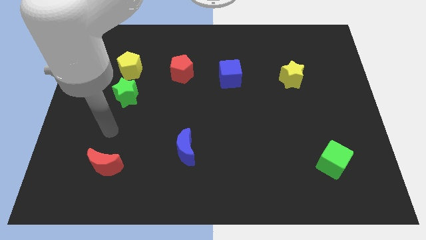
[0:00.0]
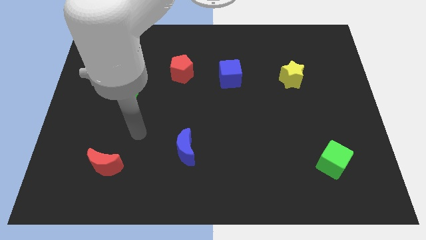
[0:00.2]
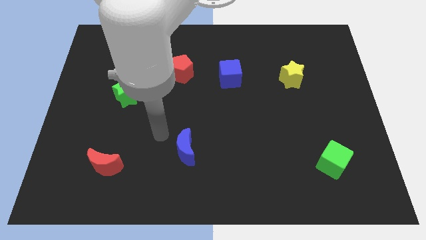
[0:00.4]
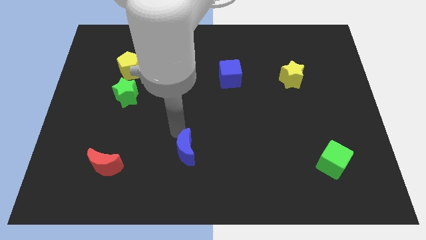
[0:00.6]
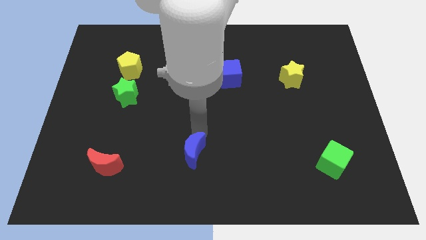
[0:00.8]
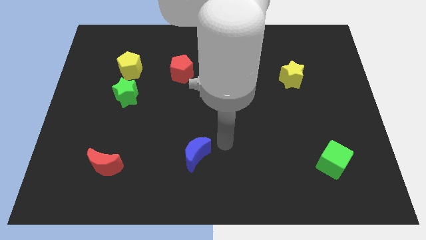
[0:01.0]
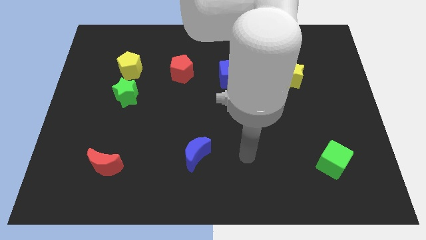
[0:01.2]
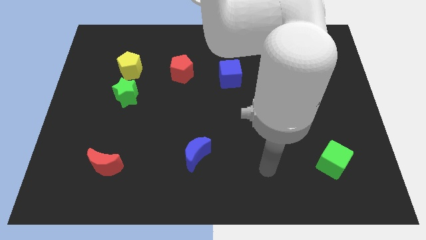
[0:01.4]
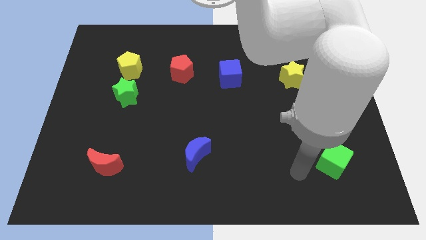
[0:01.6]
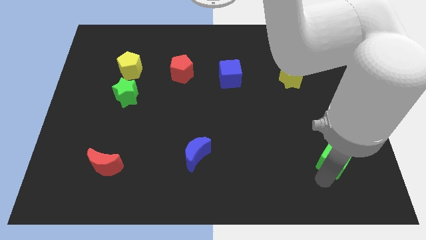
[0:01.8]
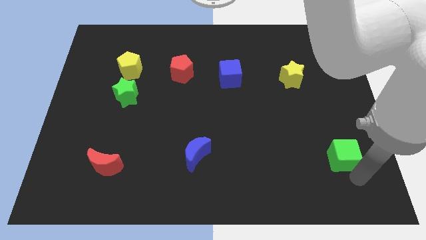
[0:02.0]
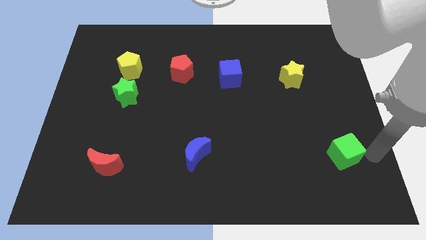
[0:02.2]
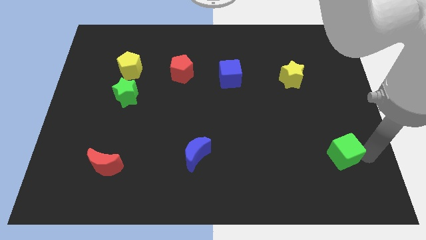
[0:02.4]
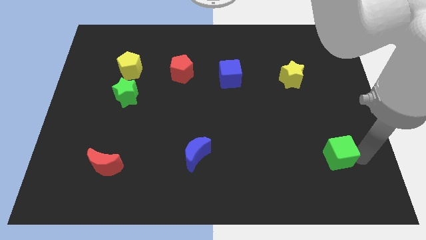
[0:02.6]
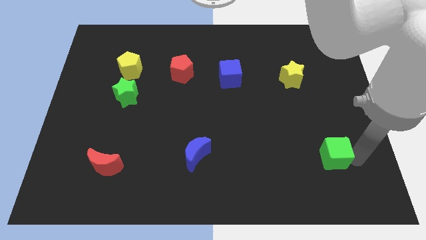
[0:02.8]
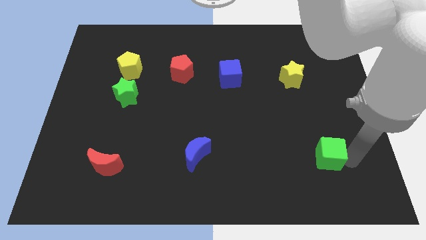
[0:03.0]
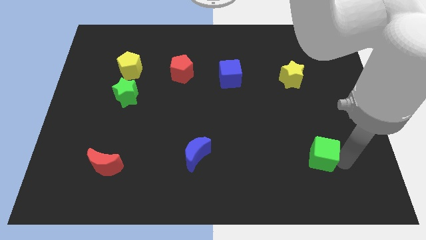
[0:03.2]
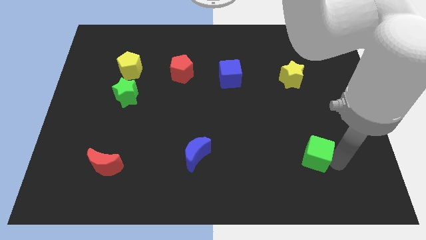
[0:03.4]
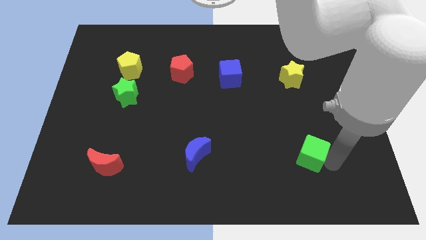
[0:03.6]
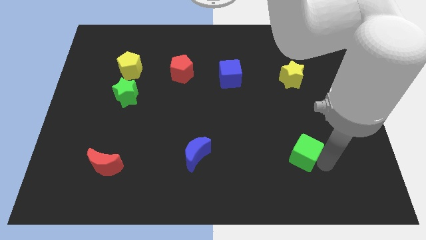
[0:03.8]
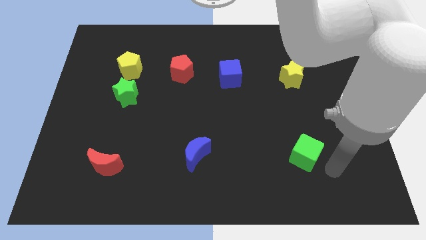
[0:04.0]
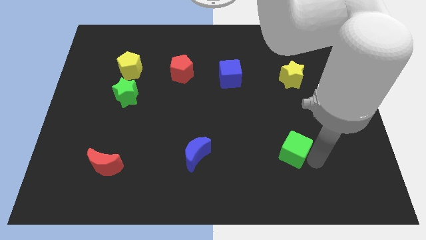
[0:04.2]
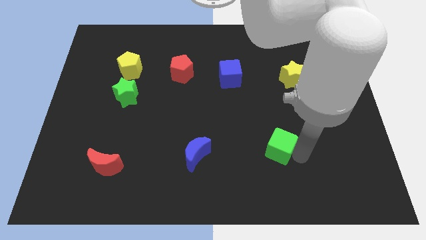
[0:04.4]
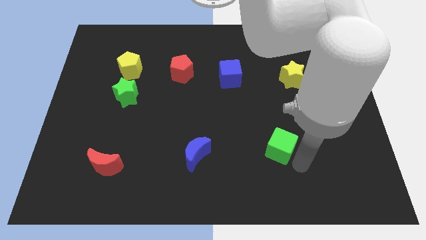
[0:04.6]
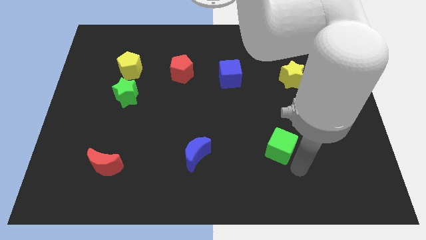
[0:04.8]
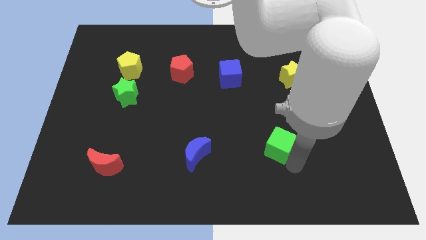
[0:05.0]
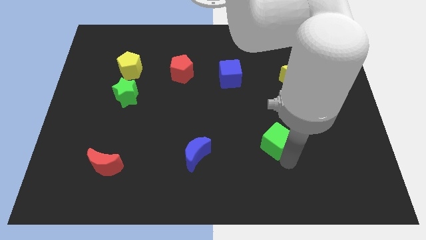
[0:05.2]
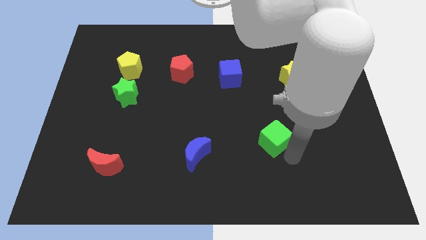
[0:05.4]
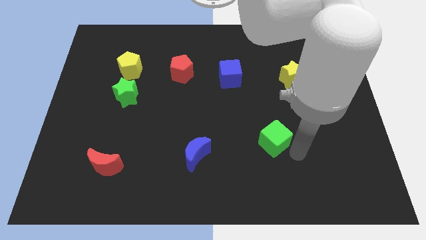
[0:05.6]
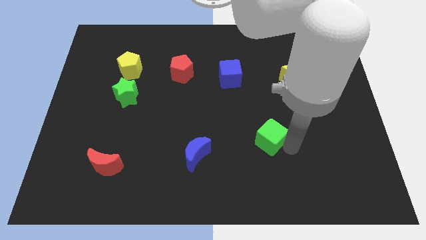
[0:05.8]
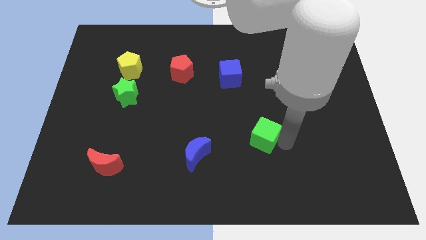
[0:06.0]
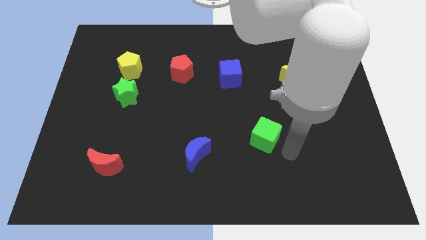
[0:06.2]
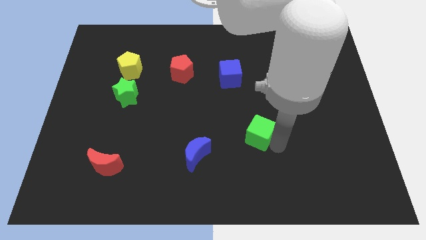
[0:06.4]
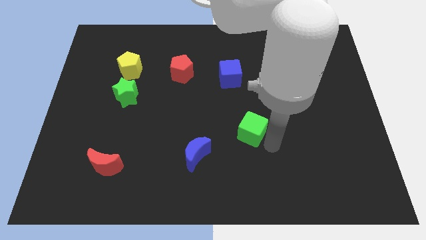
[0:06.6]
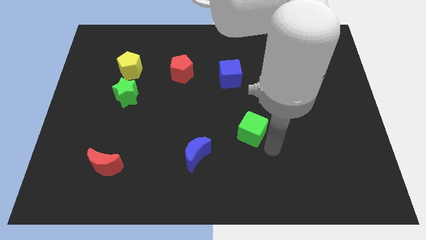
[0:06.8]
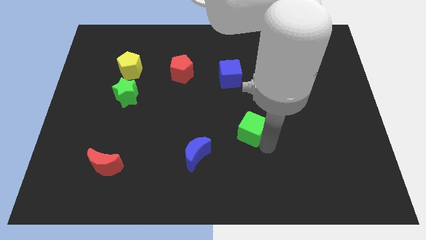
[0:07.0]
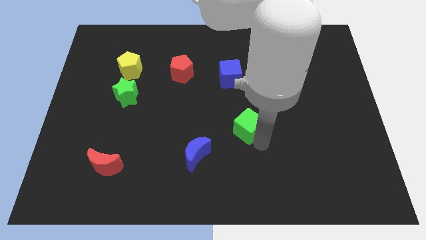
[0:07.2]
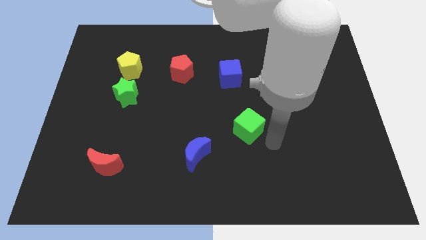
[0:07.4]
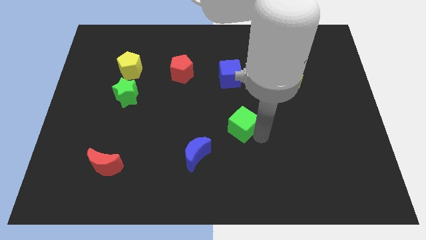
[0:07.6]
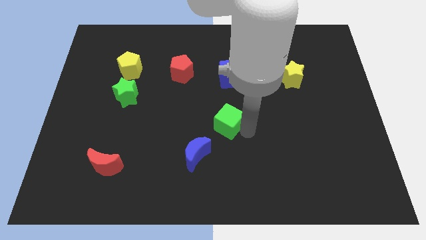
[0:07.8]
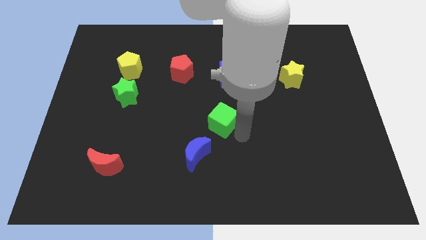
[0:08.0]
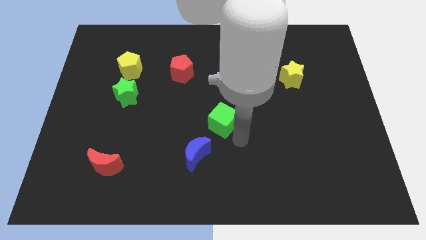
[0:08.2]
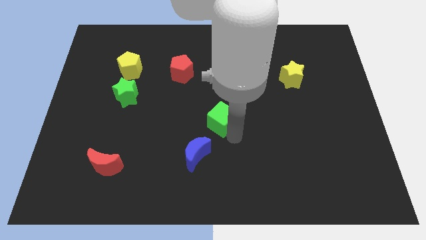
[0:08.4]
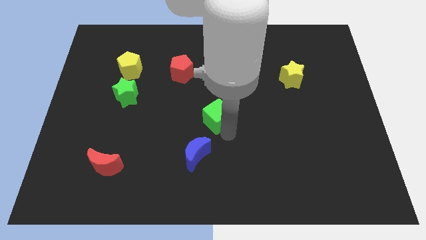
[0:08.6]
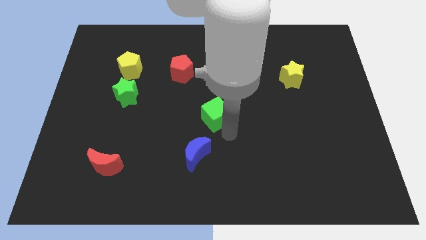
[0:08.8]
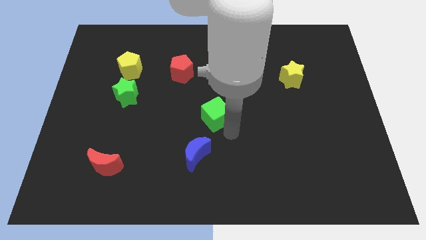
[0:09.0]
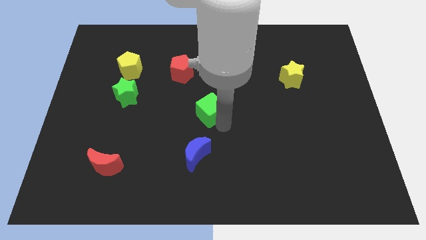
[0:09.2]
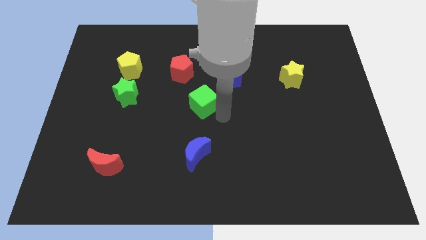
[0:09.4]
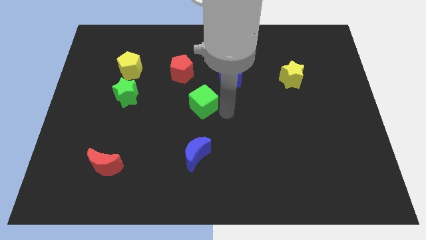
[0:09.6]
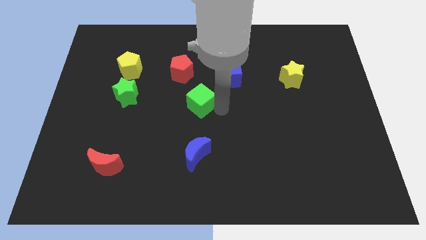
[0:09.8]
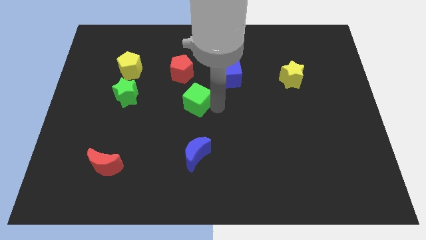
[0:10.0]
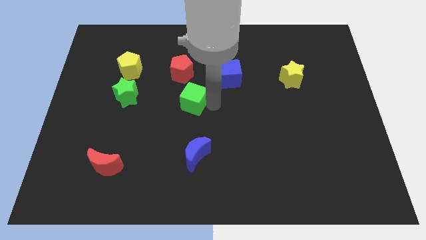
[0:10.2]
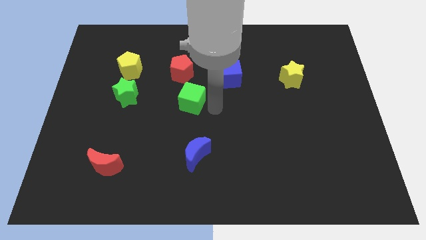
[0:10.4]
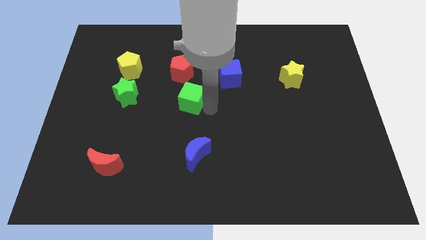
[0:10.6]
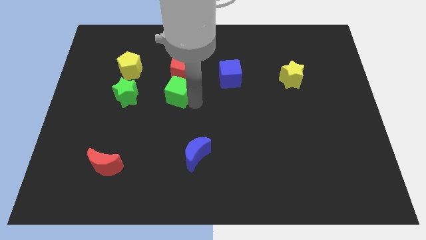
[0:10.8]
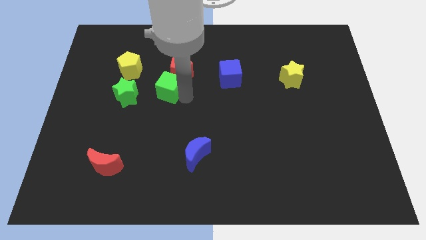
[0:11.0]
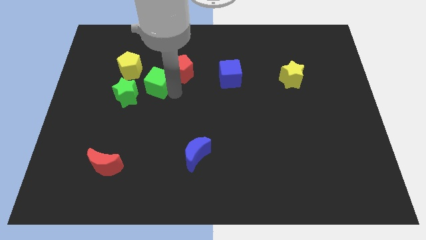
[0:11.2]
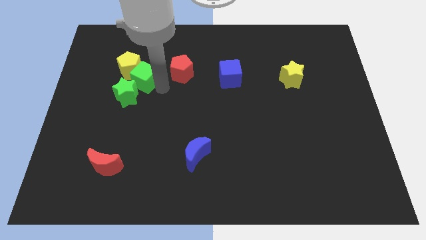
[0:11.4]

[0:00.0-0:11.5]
push the green cube to the yellow pentagon

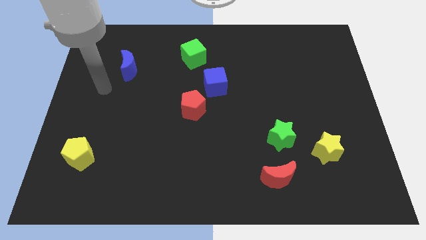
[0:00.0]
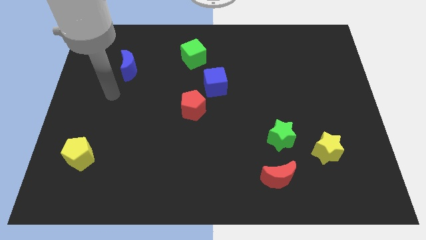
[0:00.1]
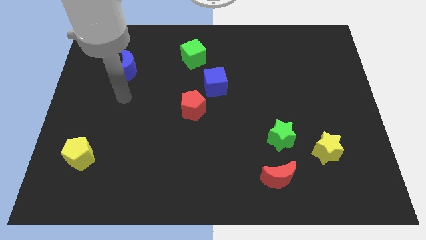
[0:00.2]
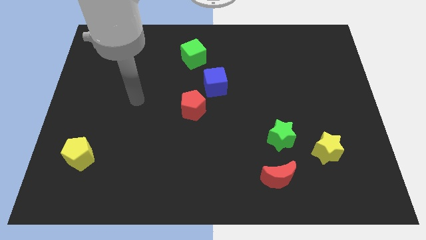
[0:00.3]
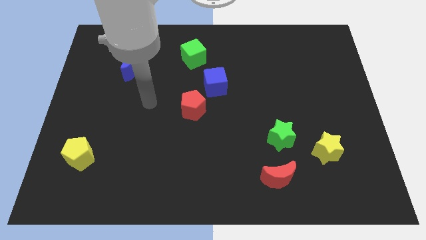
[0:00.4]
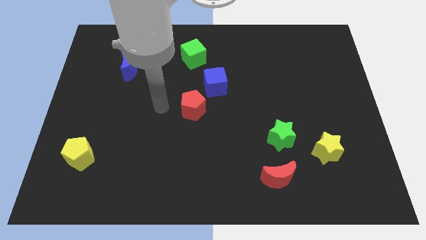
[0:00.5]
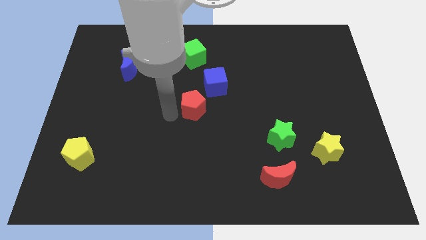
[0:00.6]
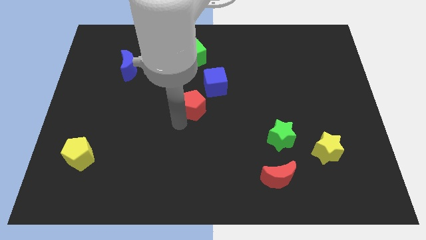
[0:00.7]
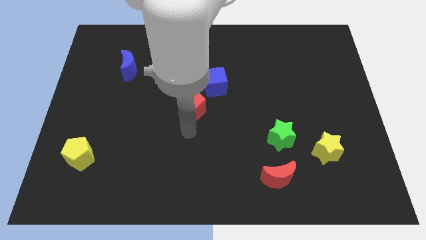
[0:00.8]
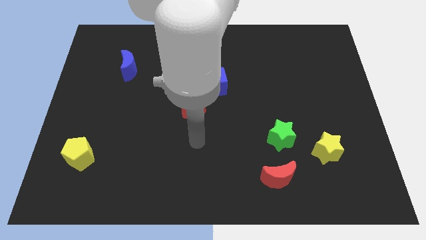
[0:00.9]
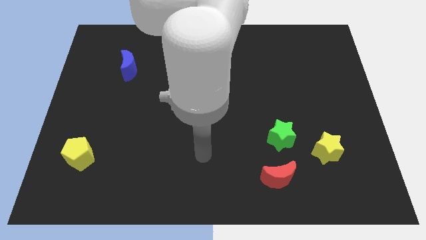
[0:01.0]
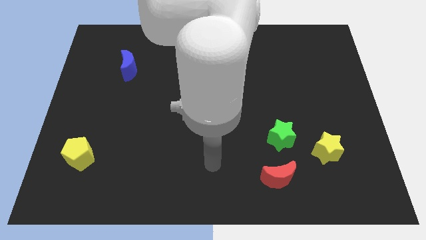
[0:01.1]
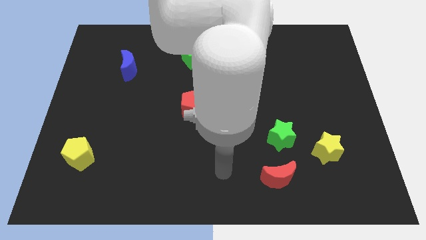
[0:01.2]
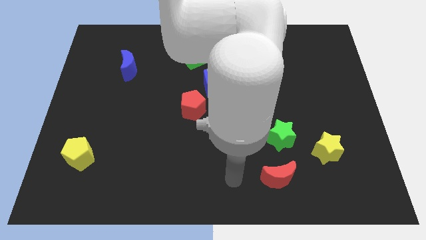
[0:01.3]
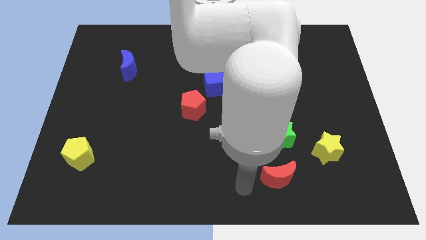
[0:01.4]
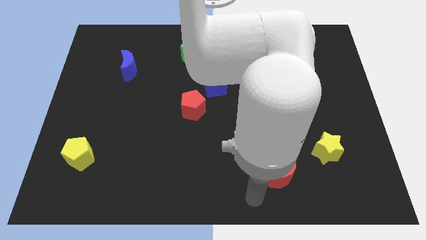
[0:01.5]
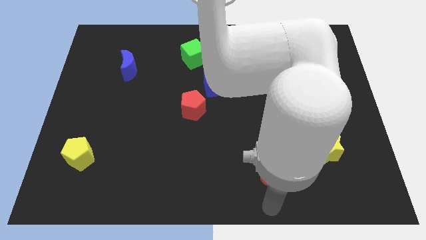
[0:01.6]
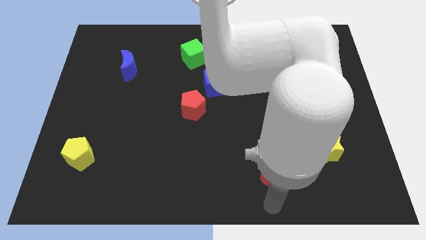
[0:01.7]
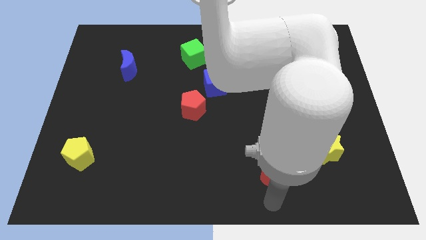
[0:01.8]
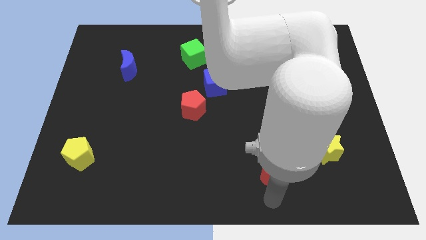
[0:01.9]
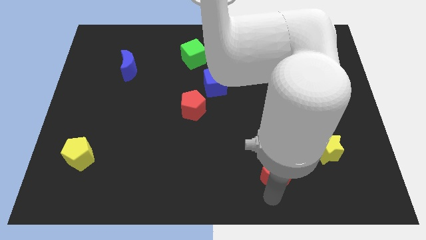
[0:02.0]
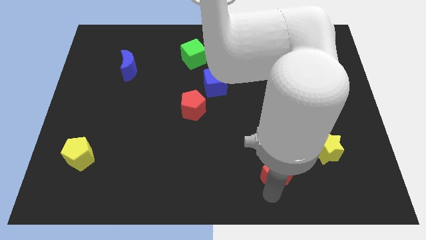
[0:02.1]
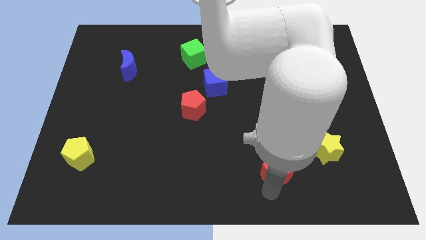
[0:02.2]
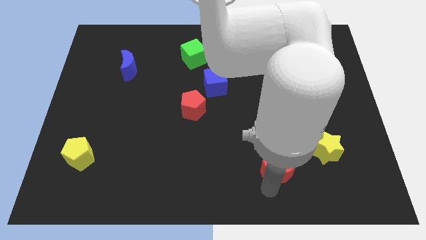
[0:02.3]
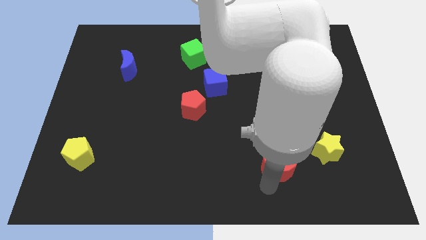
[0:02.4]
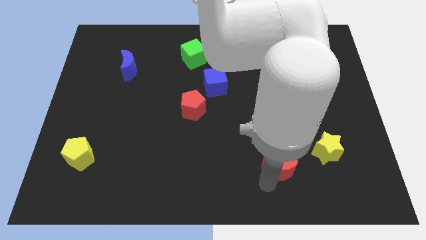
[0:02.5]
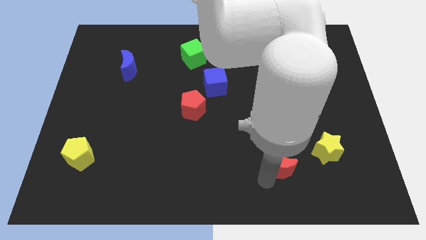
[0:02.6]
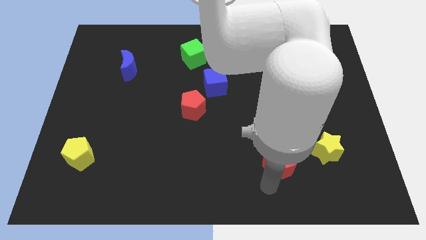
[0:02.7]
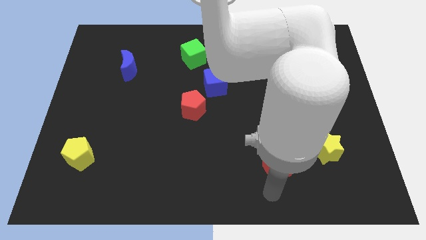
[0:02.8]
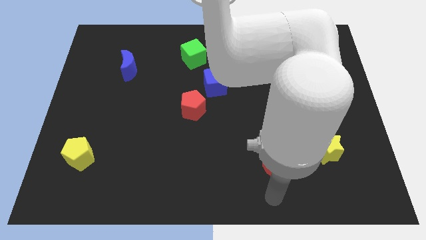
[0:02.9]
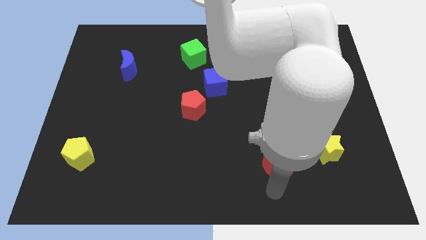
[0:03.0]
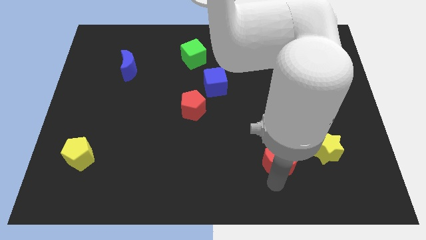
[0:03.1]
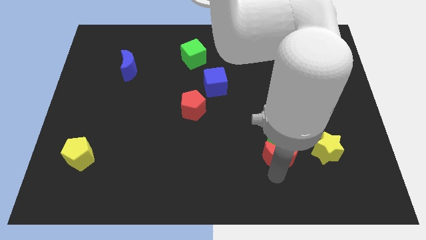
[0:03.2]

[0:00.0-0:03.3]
move the red moon towards the green star
